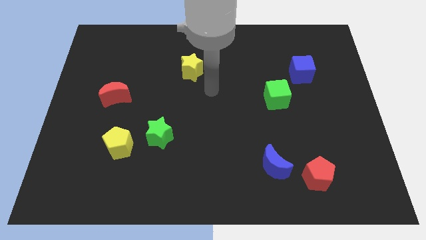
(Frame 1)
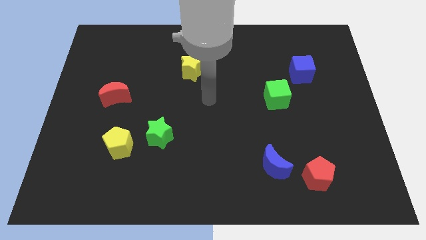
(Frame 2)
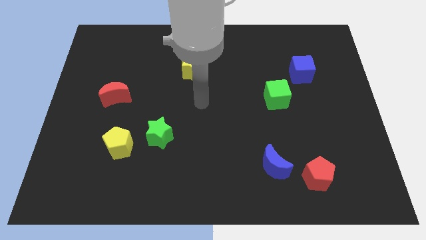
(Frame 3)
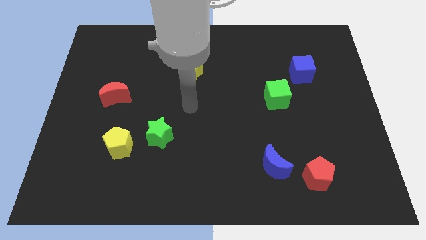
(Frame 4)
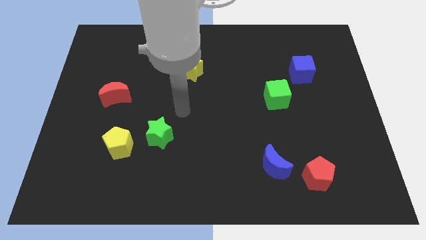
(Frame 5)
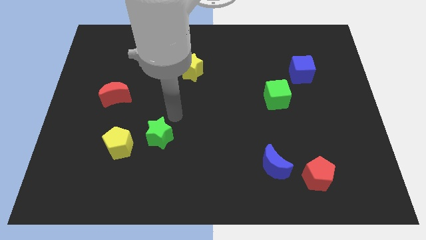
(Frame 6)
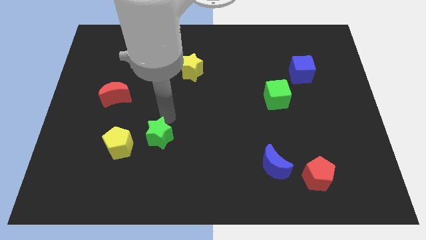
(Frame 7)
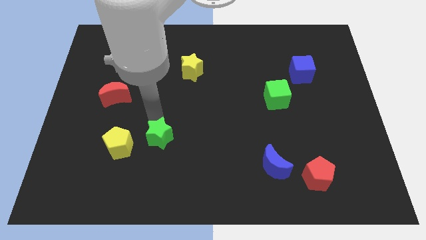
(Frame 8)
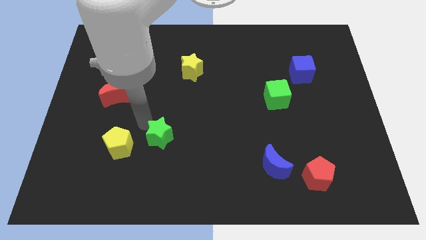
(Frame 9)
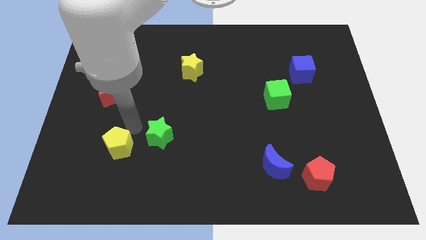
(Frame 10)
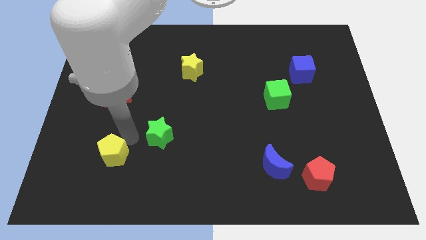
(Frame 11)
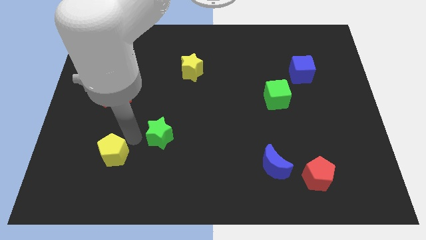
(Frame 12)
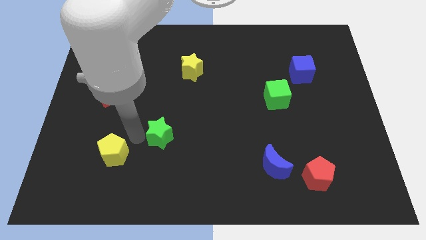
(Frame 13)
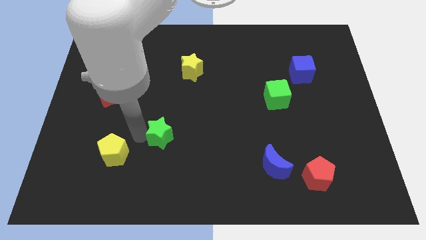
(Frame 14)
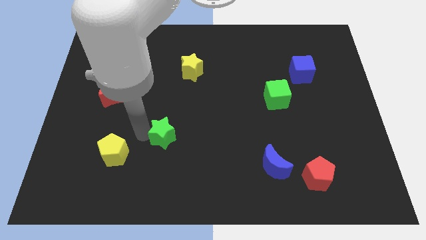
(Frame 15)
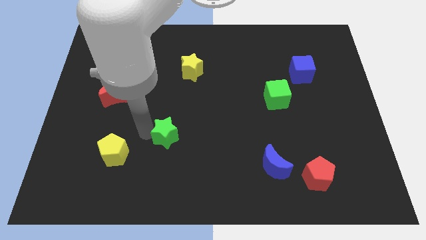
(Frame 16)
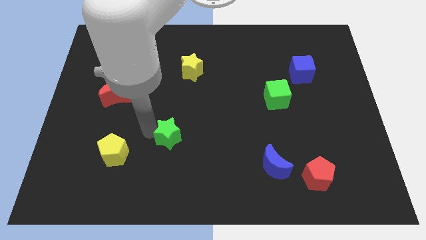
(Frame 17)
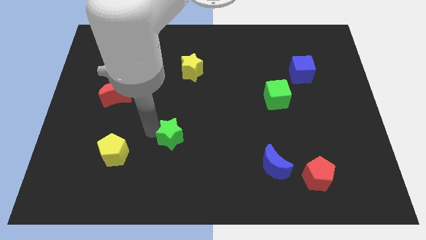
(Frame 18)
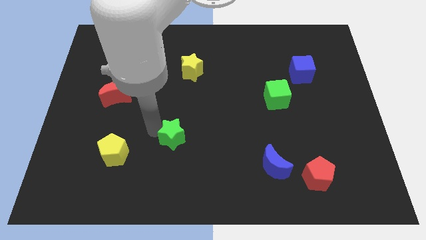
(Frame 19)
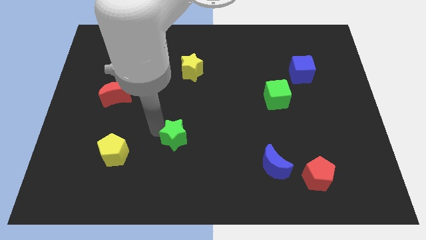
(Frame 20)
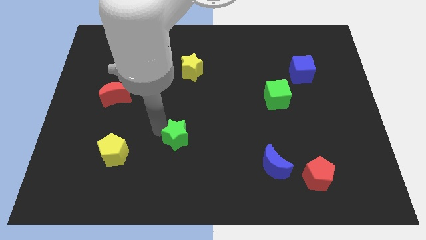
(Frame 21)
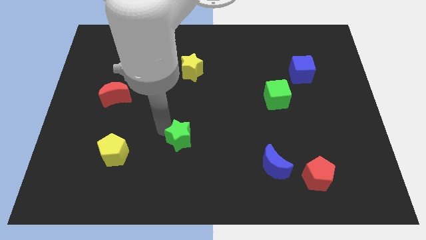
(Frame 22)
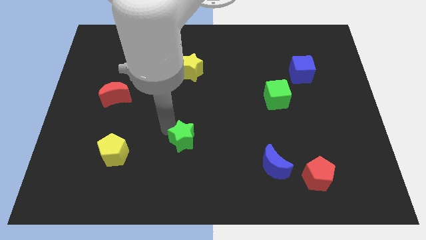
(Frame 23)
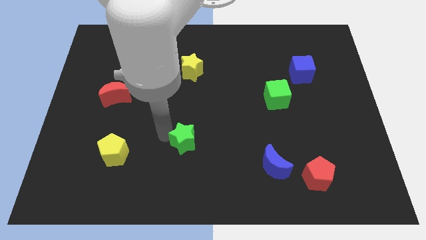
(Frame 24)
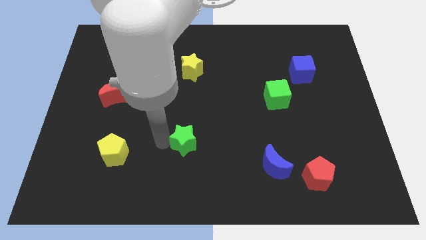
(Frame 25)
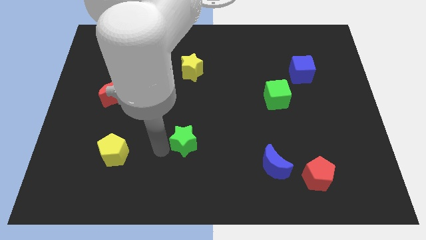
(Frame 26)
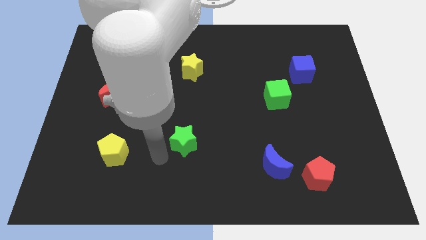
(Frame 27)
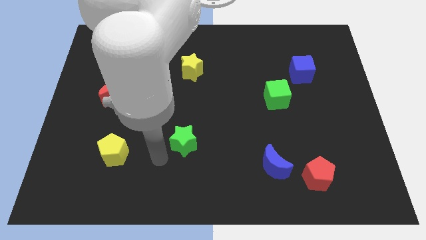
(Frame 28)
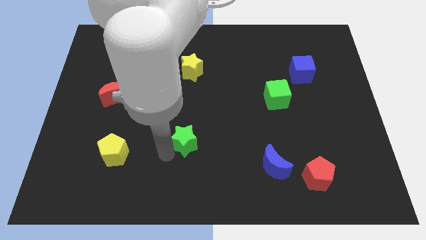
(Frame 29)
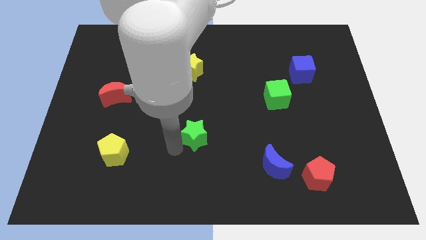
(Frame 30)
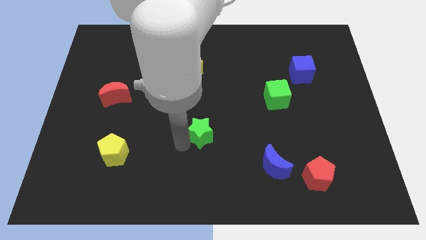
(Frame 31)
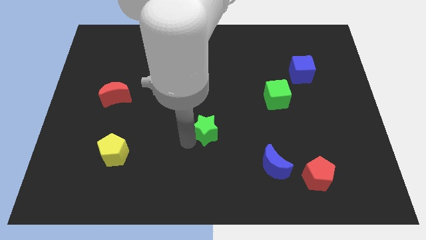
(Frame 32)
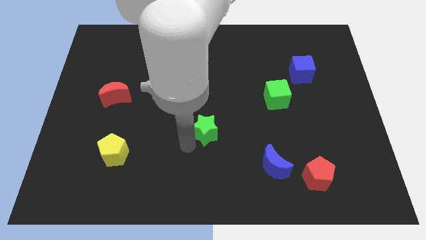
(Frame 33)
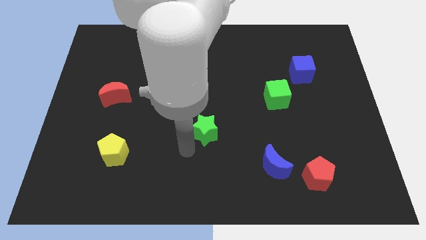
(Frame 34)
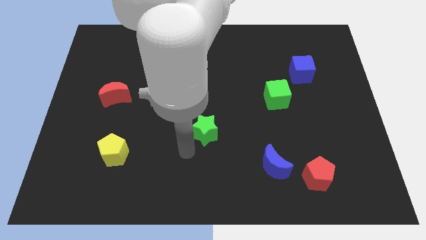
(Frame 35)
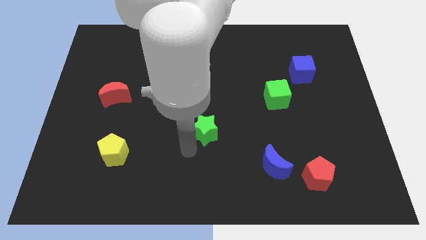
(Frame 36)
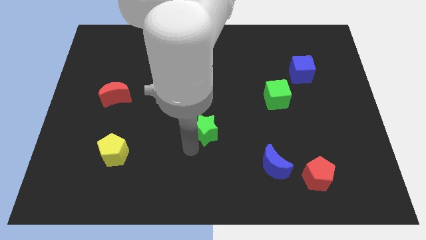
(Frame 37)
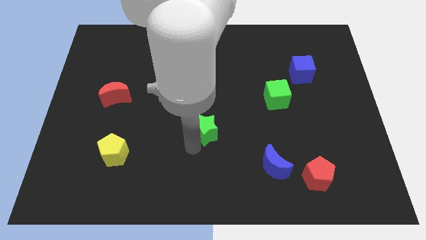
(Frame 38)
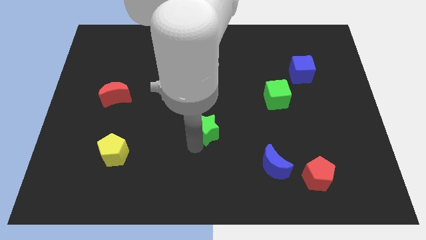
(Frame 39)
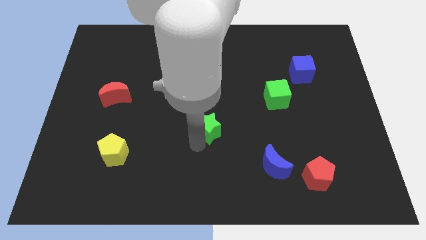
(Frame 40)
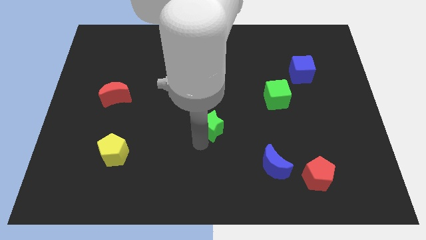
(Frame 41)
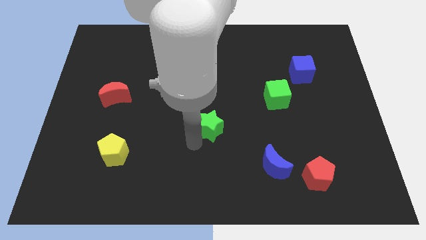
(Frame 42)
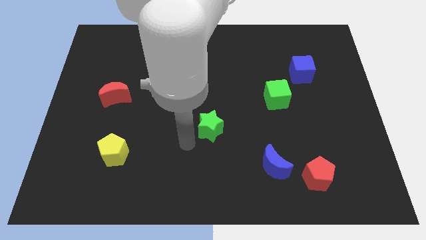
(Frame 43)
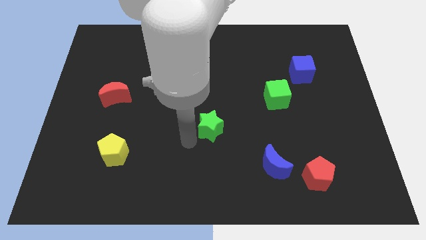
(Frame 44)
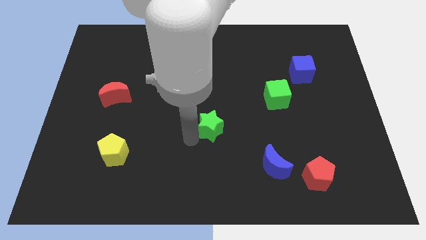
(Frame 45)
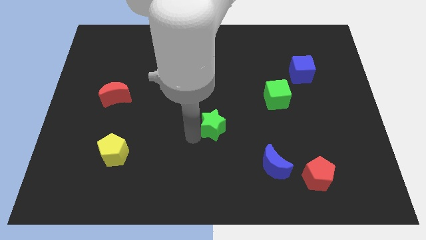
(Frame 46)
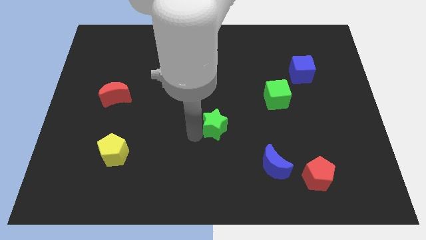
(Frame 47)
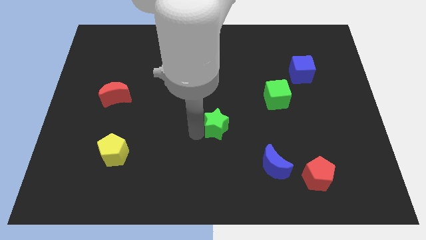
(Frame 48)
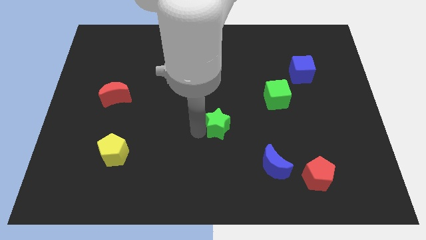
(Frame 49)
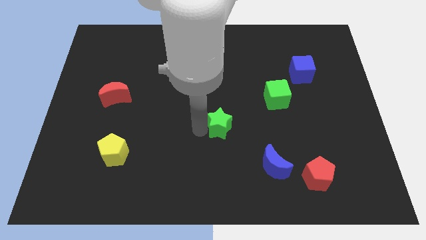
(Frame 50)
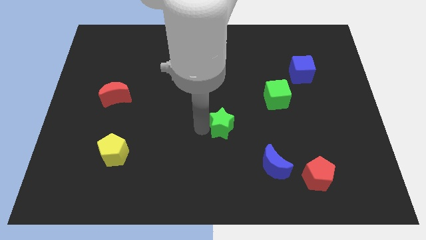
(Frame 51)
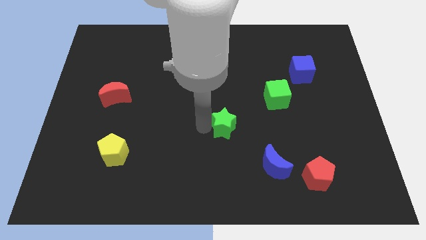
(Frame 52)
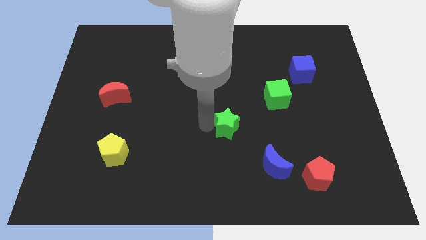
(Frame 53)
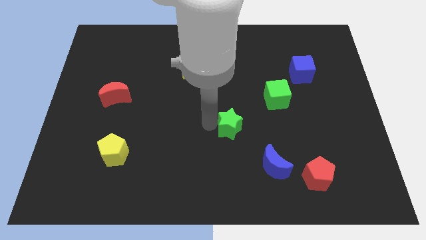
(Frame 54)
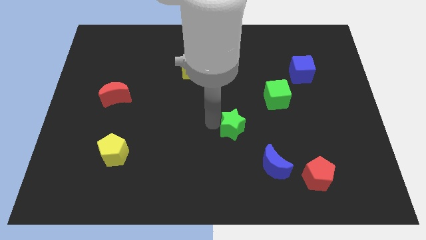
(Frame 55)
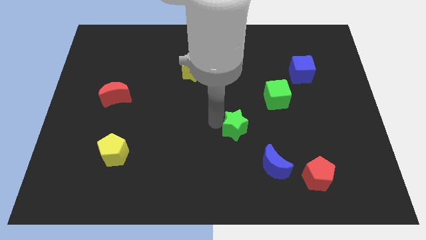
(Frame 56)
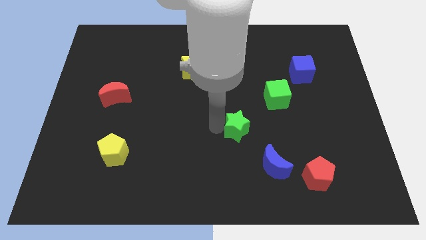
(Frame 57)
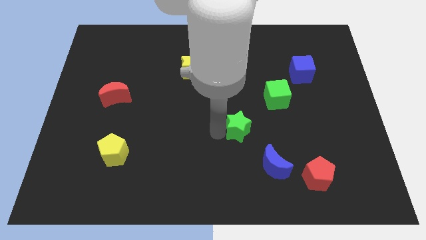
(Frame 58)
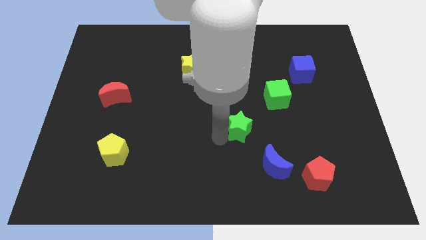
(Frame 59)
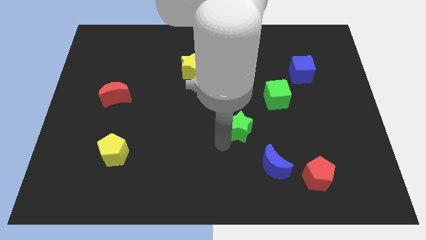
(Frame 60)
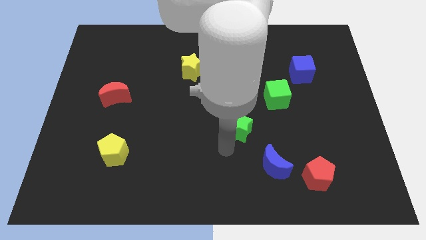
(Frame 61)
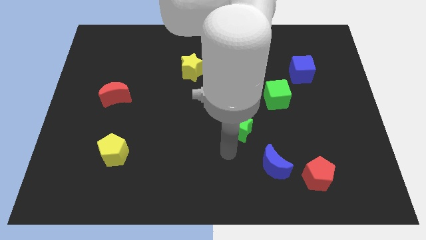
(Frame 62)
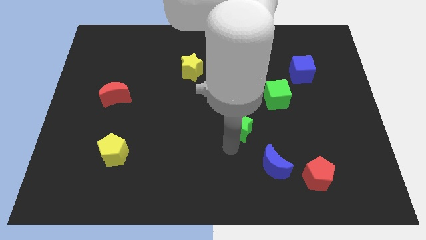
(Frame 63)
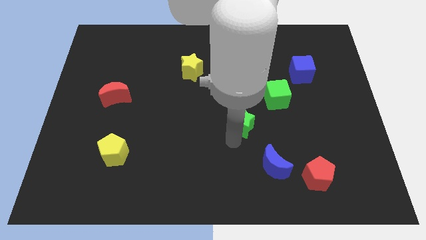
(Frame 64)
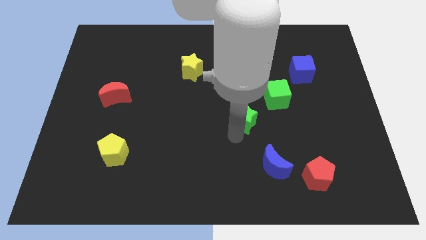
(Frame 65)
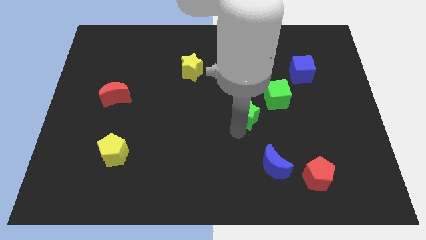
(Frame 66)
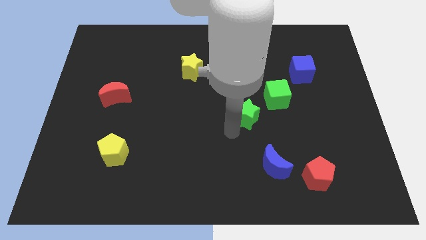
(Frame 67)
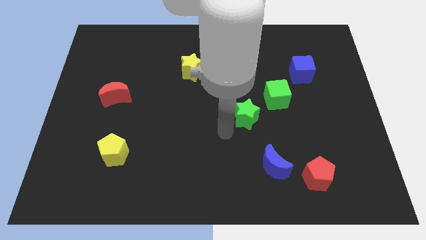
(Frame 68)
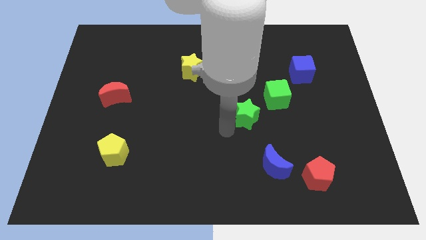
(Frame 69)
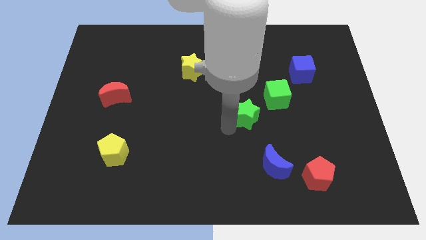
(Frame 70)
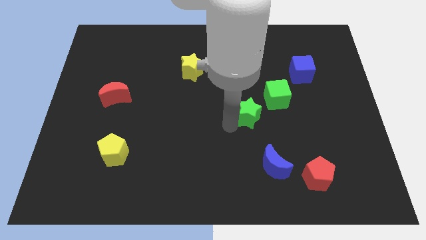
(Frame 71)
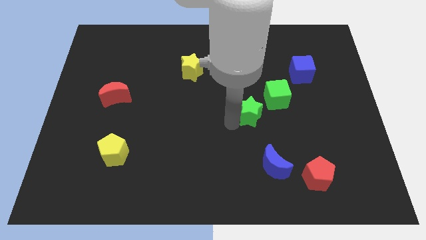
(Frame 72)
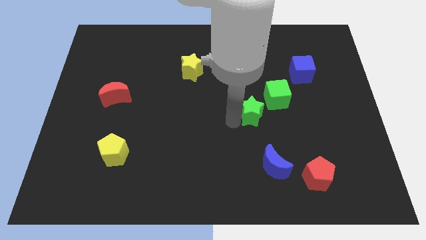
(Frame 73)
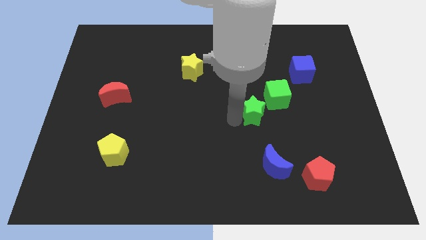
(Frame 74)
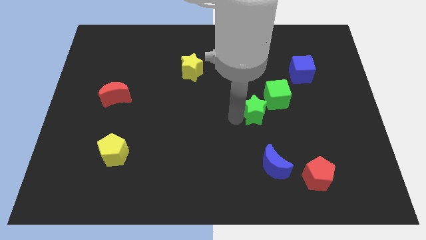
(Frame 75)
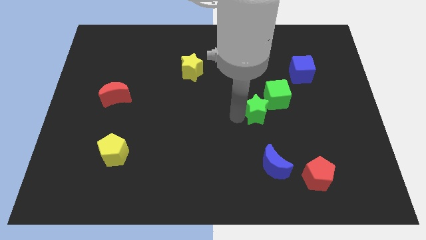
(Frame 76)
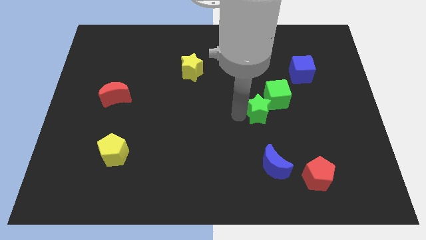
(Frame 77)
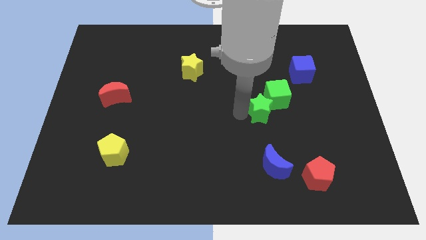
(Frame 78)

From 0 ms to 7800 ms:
push the green star towards the green cube
